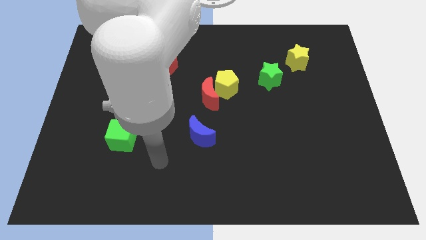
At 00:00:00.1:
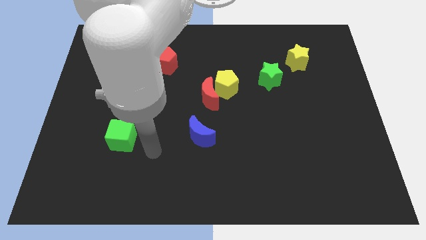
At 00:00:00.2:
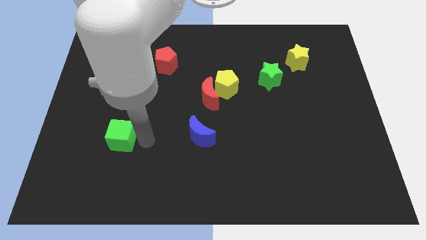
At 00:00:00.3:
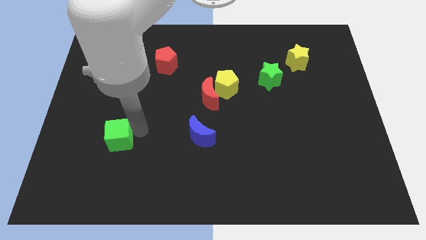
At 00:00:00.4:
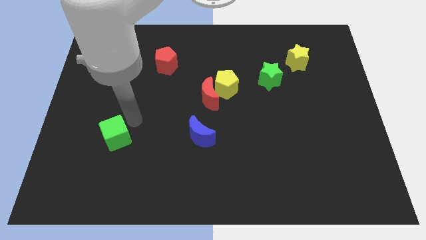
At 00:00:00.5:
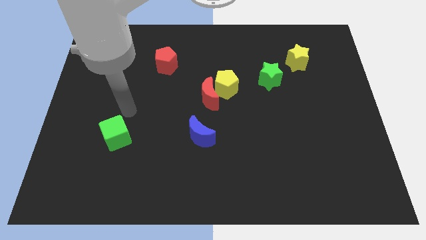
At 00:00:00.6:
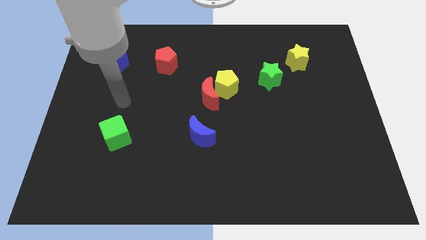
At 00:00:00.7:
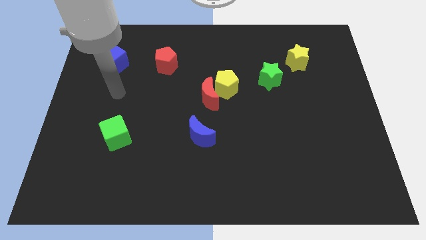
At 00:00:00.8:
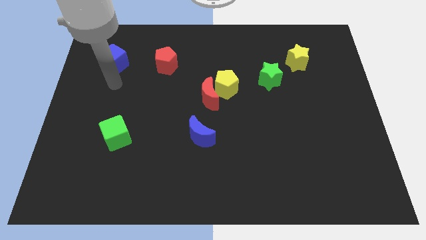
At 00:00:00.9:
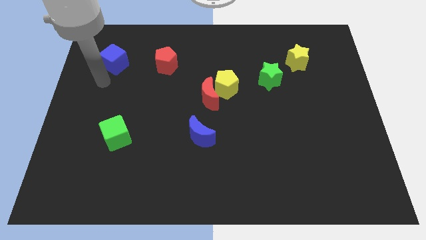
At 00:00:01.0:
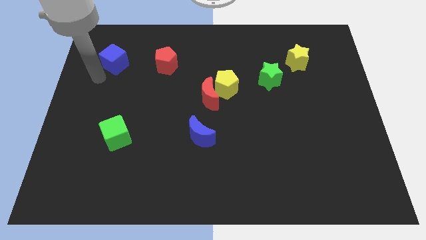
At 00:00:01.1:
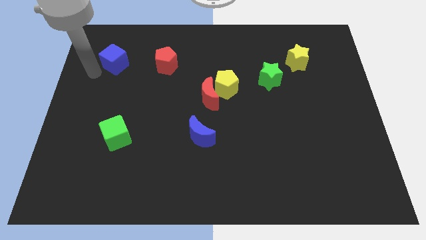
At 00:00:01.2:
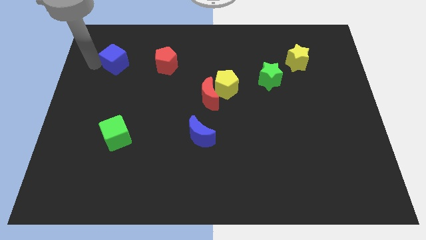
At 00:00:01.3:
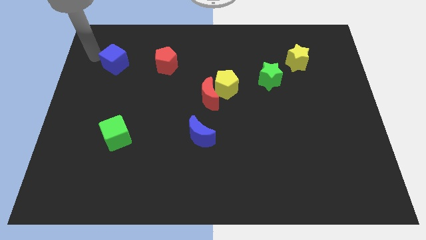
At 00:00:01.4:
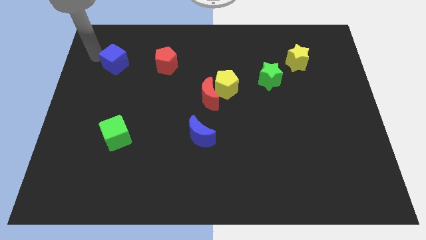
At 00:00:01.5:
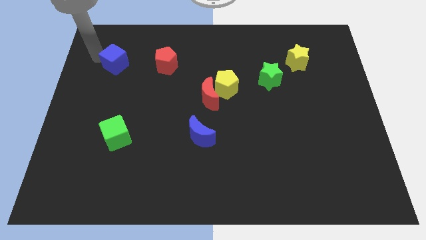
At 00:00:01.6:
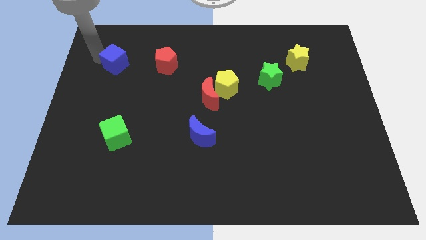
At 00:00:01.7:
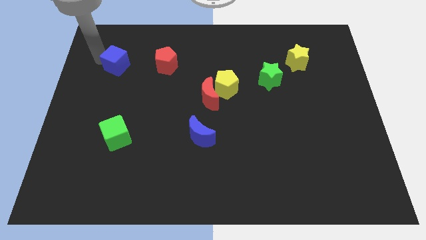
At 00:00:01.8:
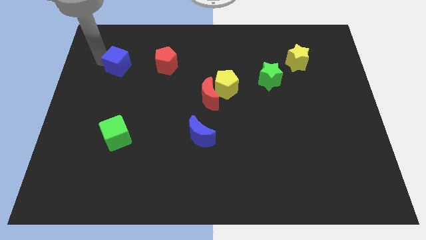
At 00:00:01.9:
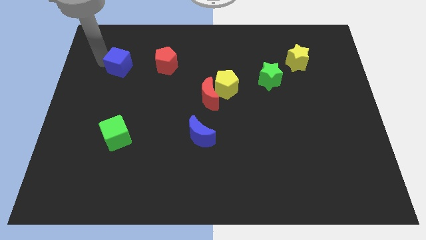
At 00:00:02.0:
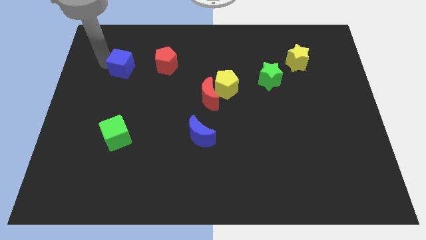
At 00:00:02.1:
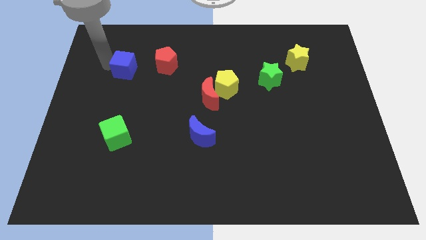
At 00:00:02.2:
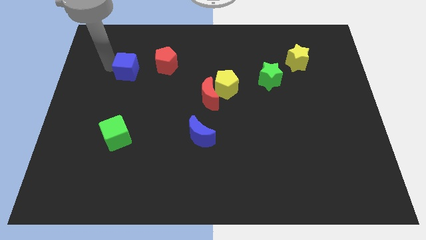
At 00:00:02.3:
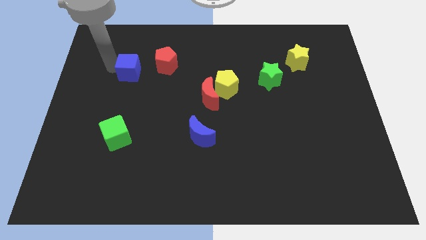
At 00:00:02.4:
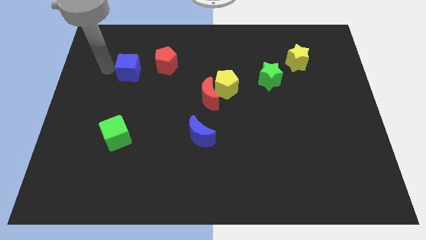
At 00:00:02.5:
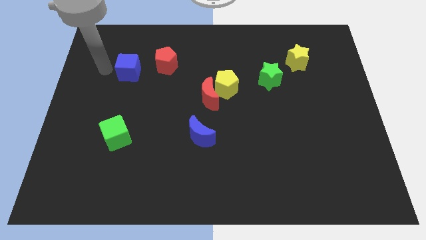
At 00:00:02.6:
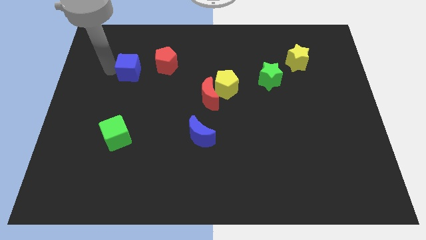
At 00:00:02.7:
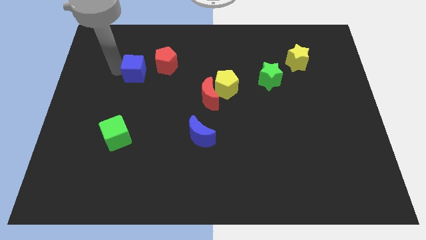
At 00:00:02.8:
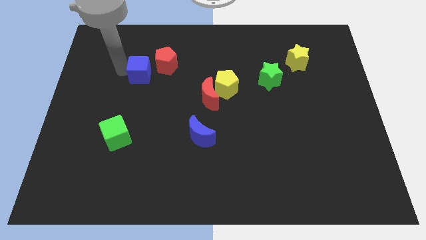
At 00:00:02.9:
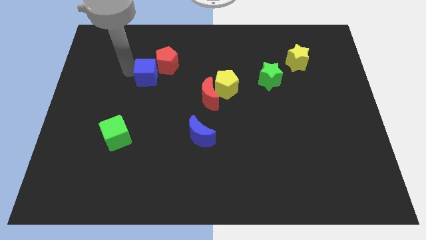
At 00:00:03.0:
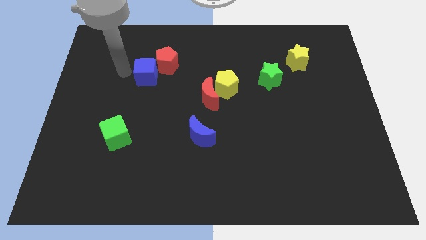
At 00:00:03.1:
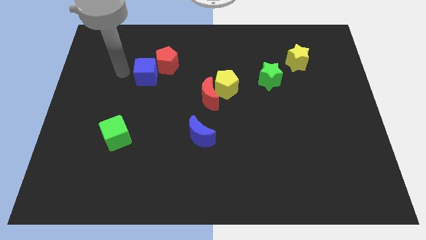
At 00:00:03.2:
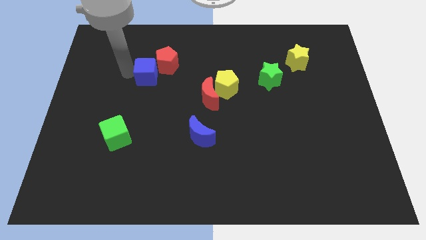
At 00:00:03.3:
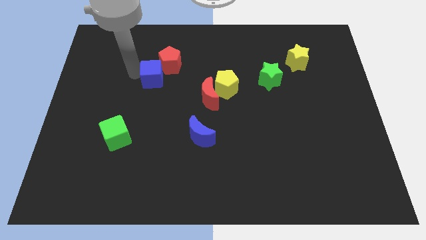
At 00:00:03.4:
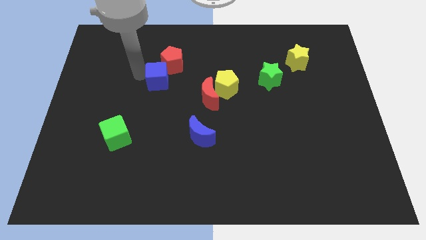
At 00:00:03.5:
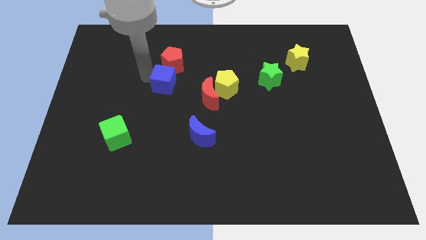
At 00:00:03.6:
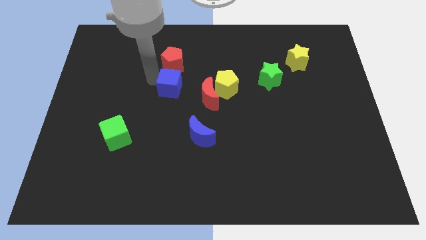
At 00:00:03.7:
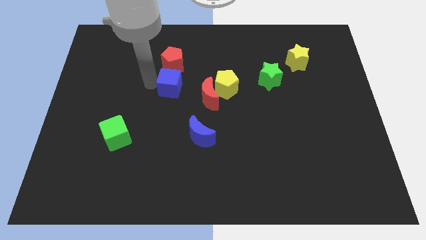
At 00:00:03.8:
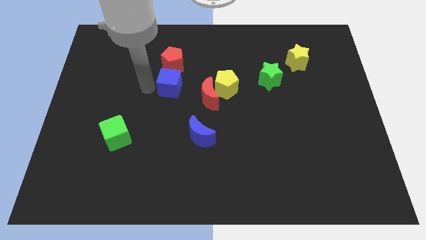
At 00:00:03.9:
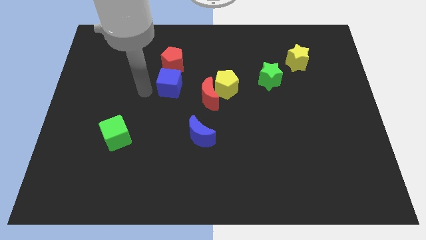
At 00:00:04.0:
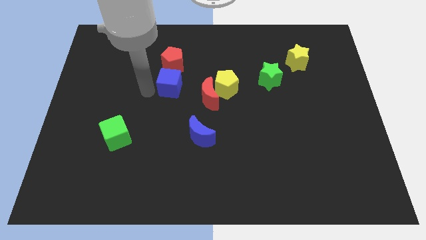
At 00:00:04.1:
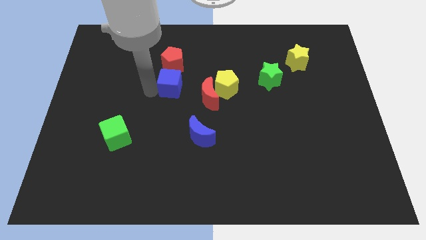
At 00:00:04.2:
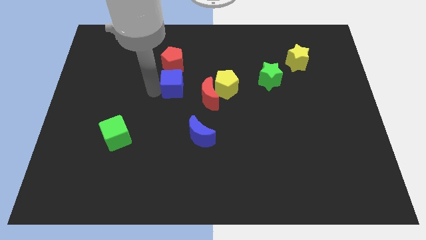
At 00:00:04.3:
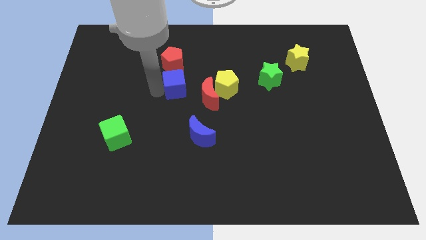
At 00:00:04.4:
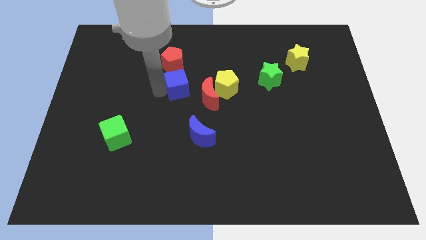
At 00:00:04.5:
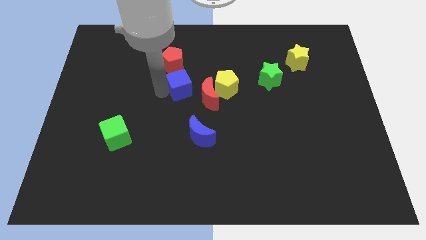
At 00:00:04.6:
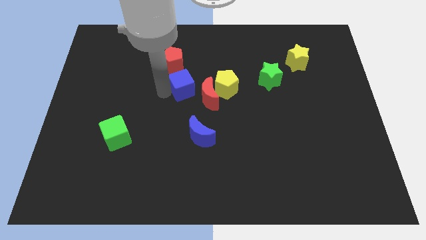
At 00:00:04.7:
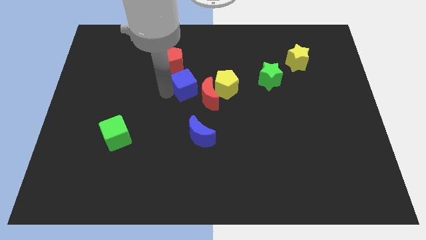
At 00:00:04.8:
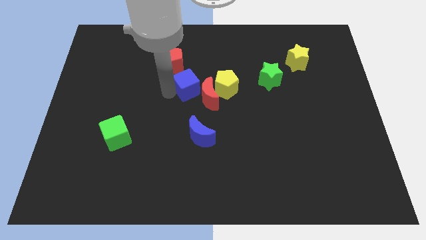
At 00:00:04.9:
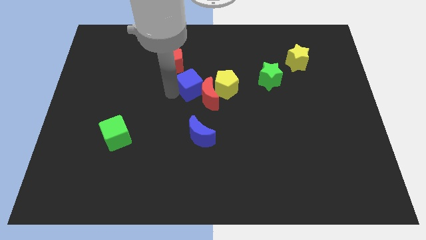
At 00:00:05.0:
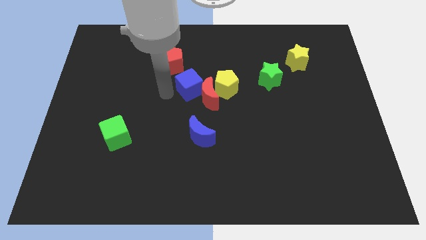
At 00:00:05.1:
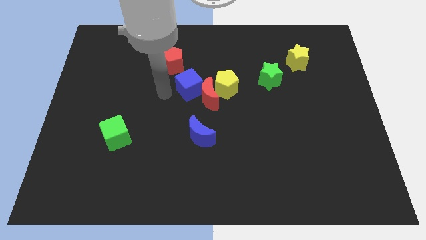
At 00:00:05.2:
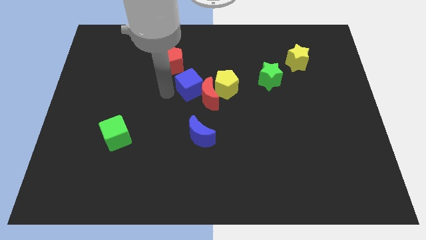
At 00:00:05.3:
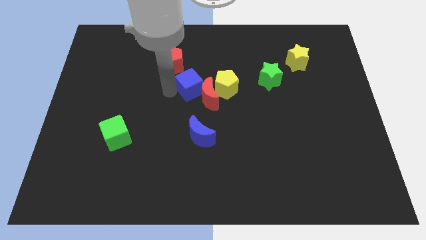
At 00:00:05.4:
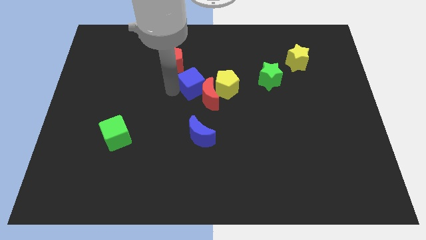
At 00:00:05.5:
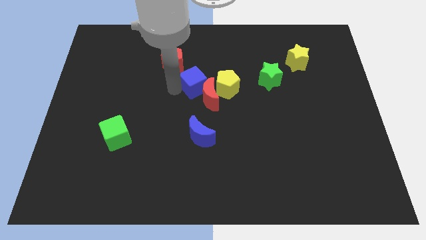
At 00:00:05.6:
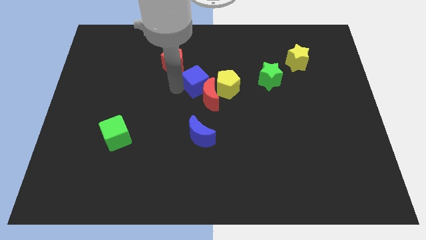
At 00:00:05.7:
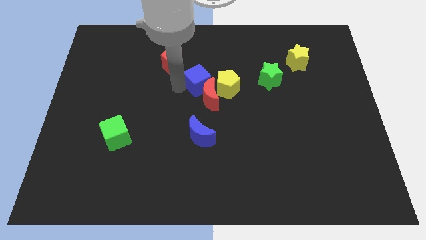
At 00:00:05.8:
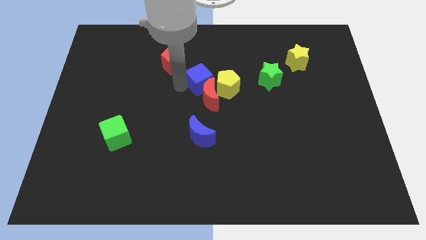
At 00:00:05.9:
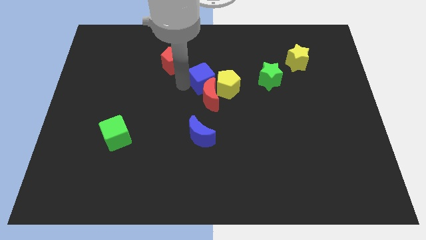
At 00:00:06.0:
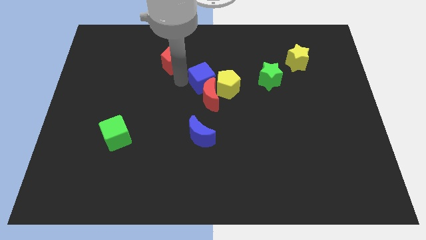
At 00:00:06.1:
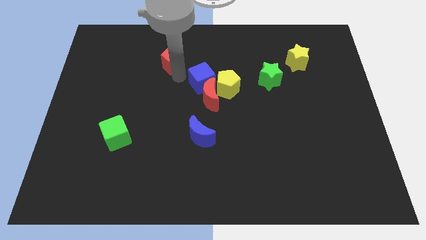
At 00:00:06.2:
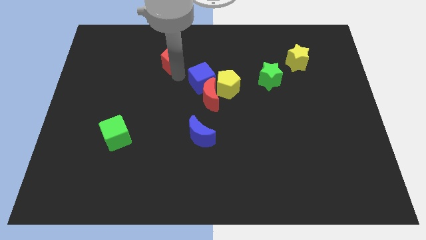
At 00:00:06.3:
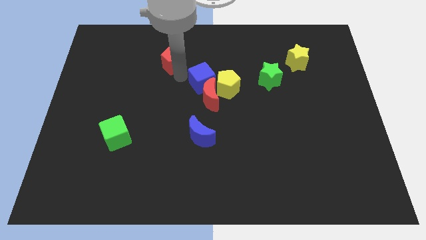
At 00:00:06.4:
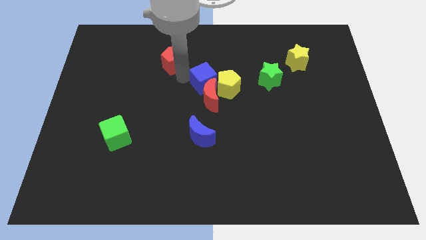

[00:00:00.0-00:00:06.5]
push the blue cube next to the yellow pentagon

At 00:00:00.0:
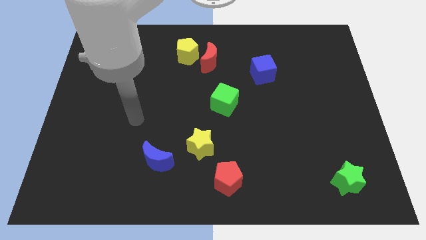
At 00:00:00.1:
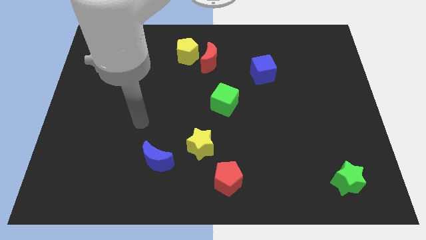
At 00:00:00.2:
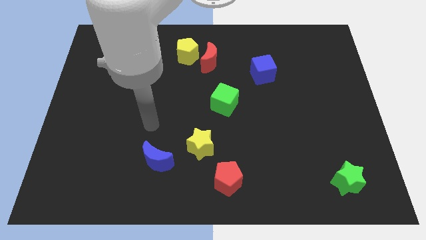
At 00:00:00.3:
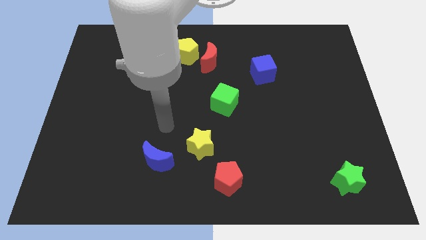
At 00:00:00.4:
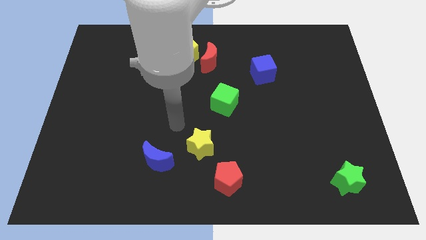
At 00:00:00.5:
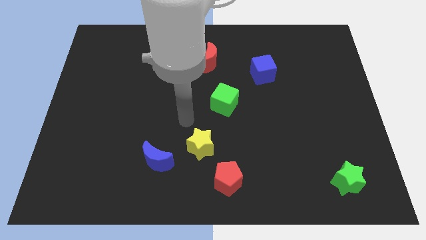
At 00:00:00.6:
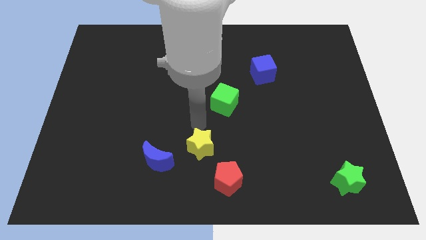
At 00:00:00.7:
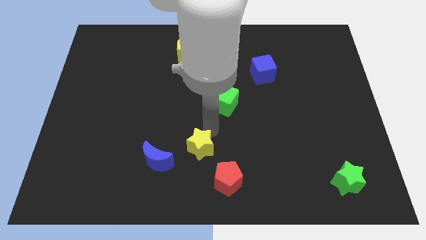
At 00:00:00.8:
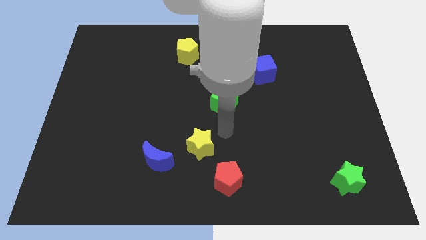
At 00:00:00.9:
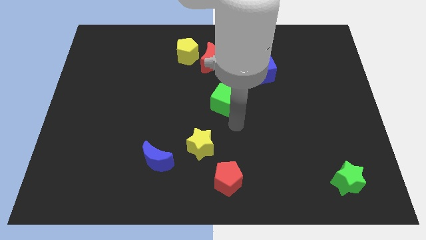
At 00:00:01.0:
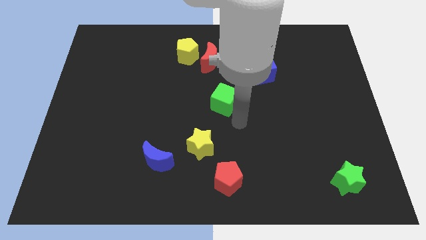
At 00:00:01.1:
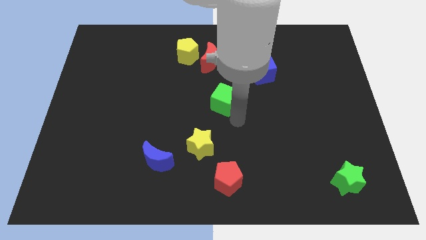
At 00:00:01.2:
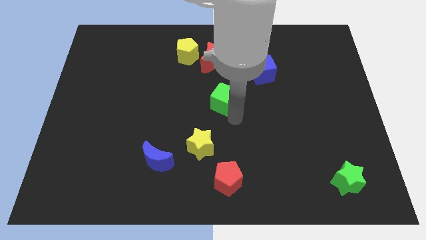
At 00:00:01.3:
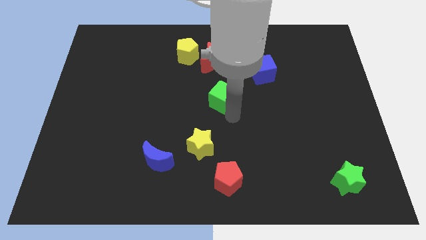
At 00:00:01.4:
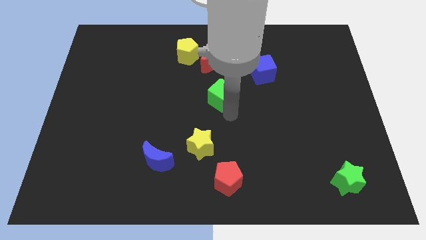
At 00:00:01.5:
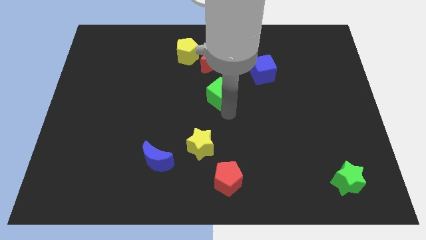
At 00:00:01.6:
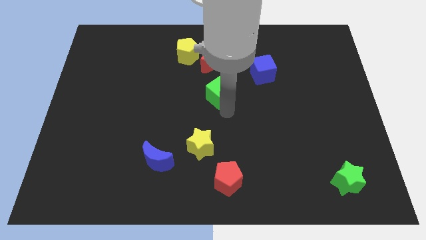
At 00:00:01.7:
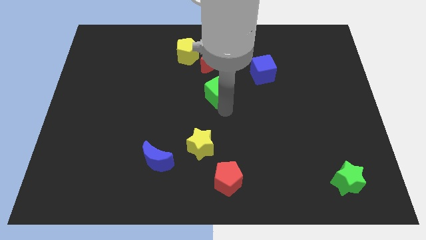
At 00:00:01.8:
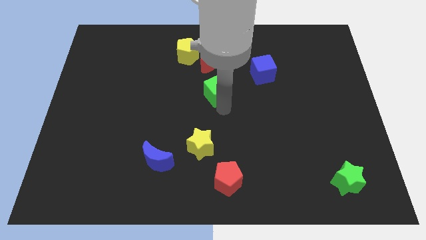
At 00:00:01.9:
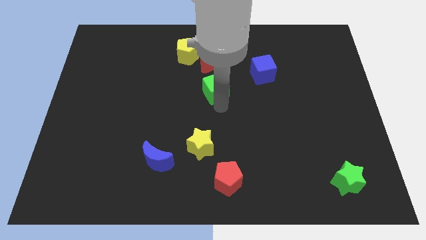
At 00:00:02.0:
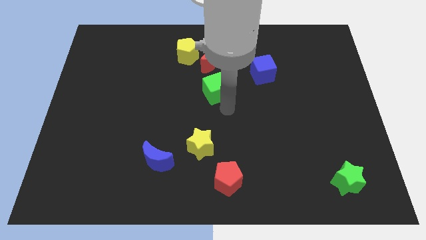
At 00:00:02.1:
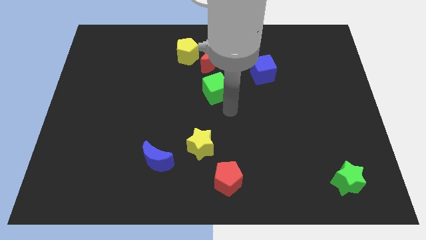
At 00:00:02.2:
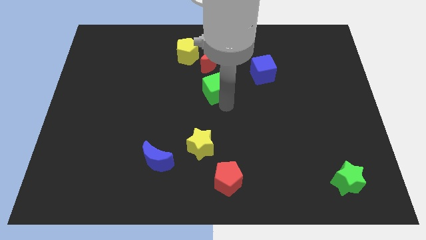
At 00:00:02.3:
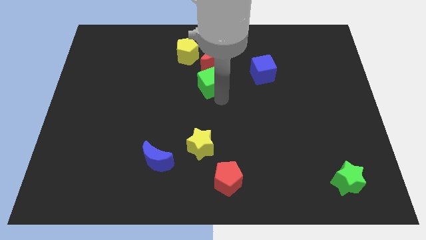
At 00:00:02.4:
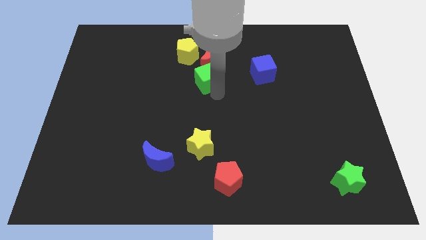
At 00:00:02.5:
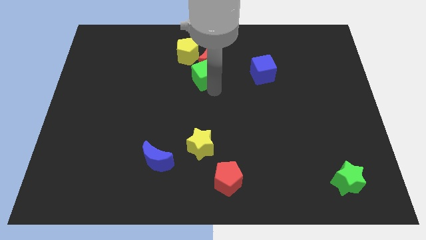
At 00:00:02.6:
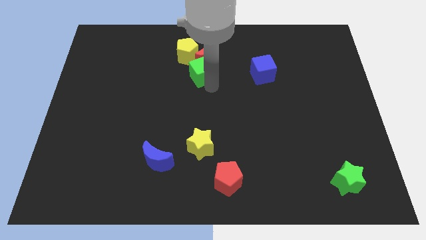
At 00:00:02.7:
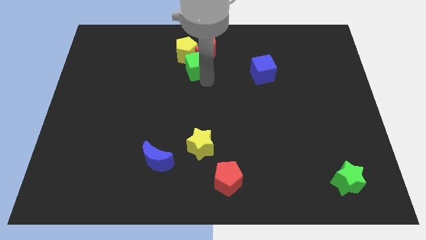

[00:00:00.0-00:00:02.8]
put the green cube to the yellow pentagon
